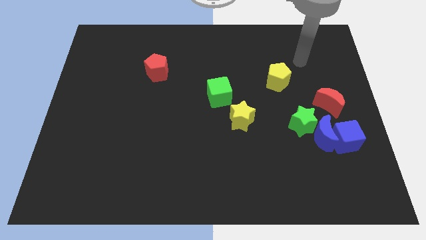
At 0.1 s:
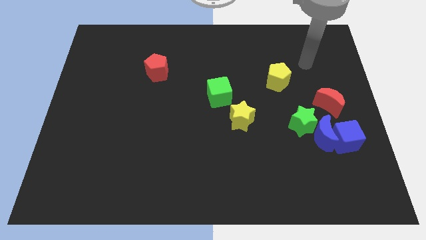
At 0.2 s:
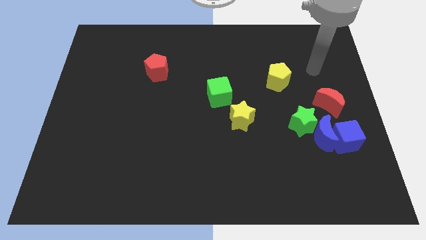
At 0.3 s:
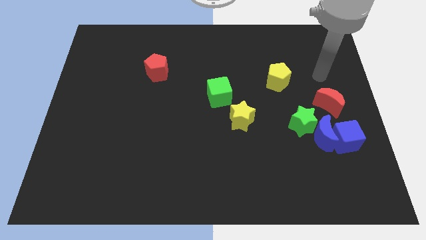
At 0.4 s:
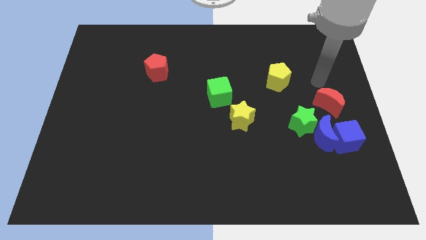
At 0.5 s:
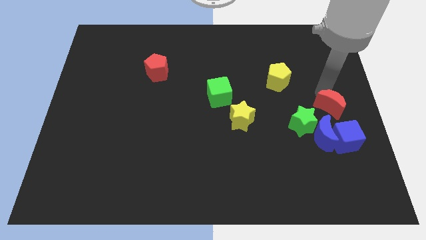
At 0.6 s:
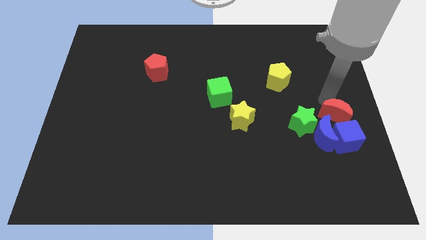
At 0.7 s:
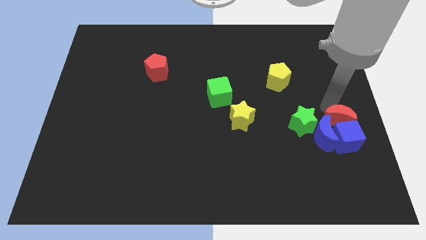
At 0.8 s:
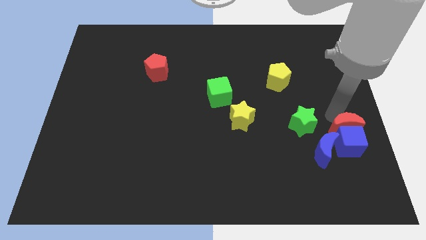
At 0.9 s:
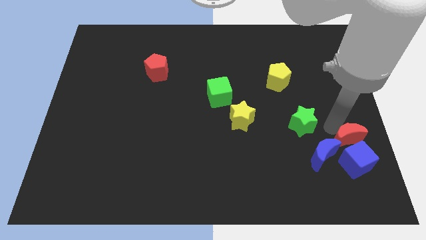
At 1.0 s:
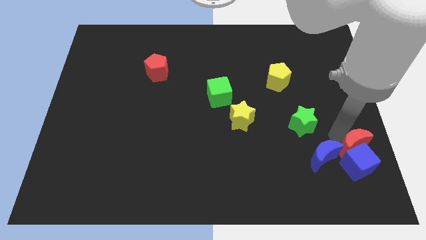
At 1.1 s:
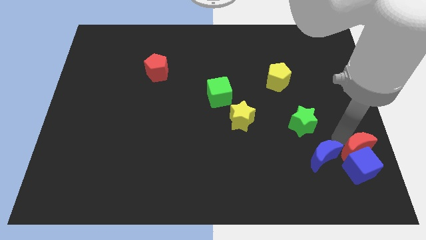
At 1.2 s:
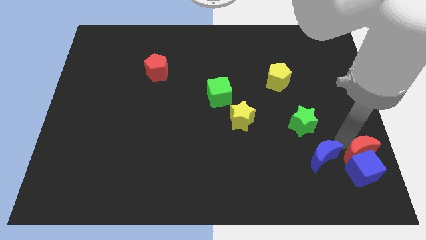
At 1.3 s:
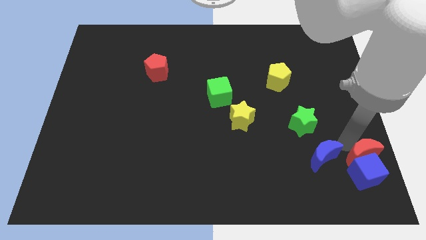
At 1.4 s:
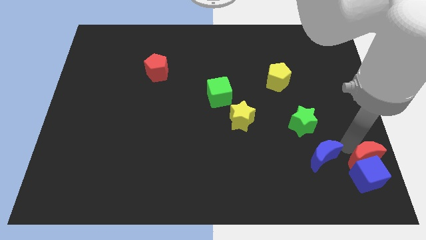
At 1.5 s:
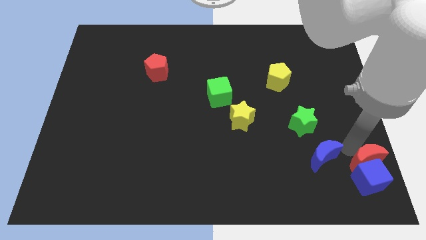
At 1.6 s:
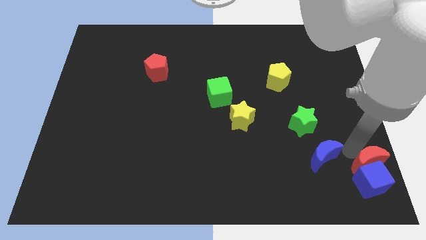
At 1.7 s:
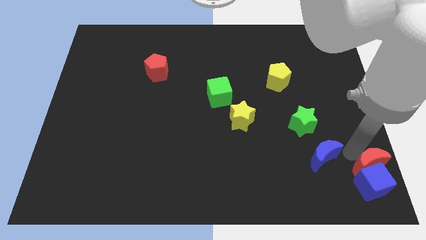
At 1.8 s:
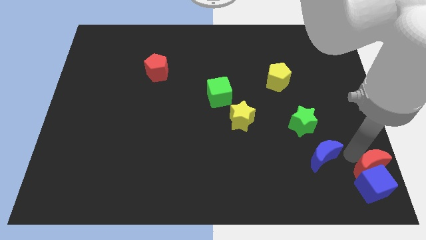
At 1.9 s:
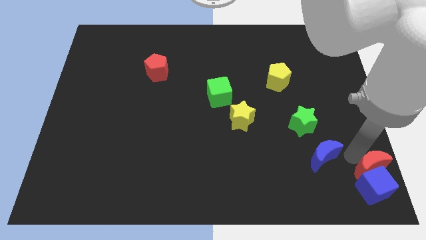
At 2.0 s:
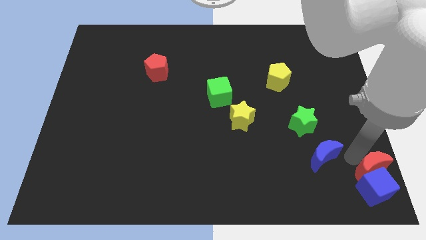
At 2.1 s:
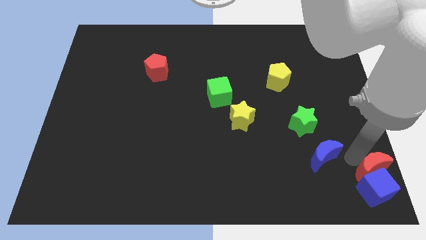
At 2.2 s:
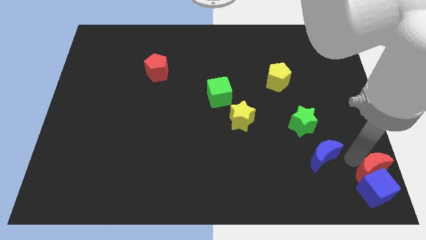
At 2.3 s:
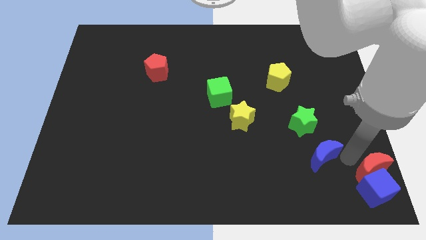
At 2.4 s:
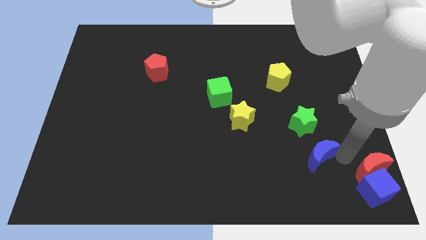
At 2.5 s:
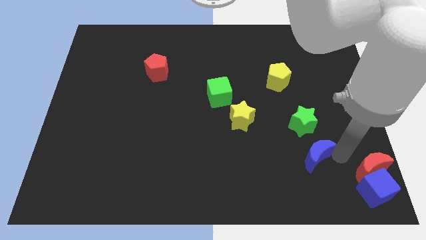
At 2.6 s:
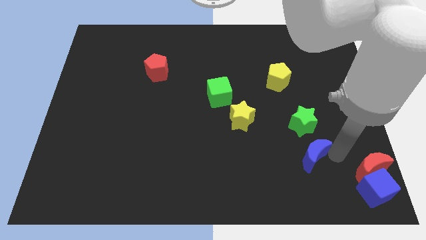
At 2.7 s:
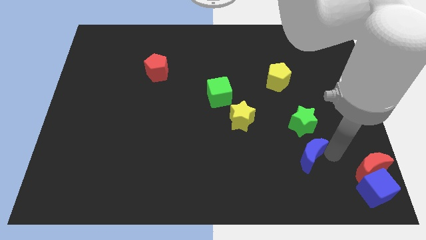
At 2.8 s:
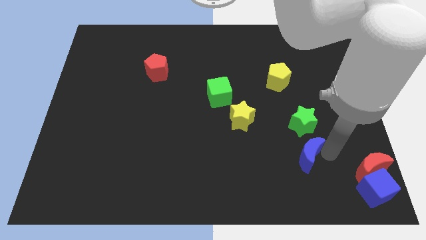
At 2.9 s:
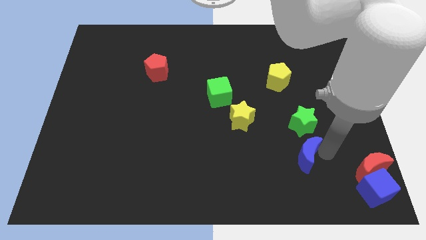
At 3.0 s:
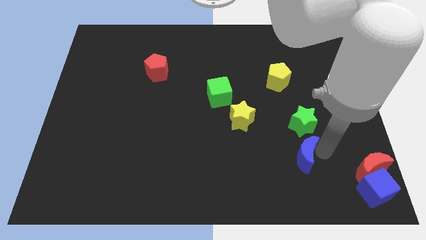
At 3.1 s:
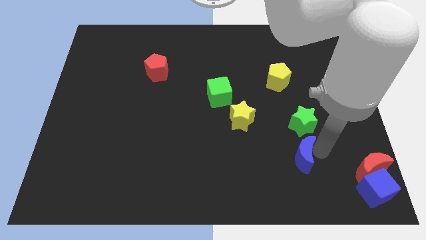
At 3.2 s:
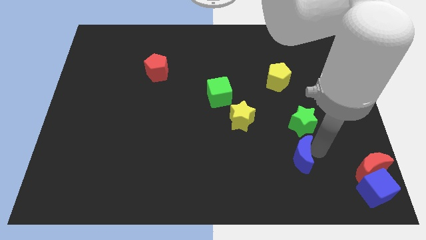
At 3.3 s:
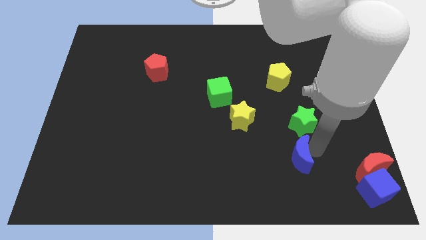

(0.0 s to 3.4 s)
move the blue moon away from the blue cube, green star, and red moon

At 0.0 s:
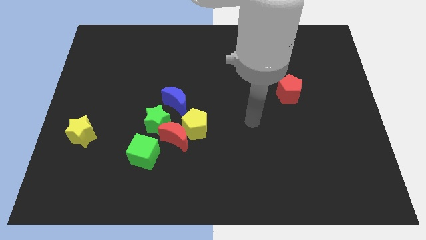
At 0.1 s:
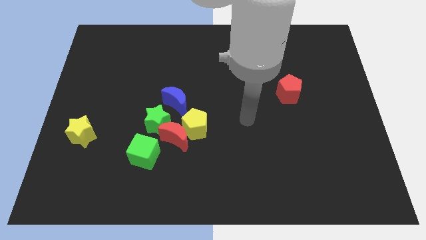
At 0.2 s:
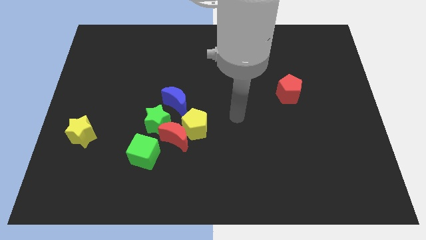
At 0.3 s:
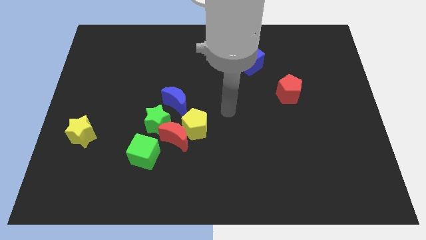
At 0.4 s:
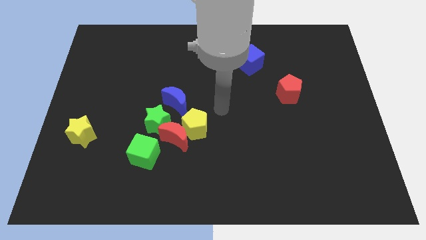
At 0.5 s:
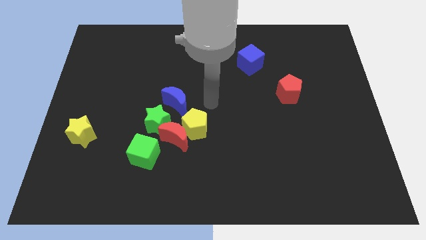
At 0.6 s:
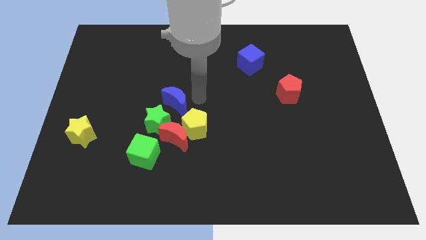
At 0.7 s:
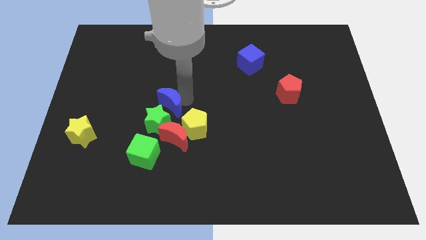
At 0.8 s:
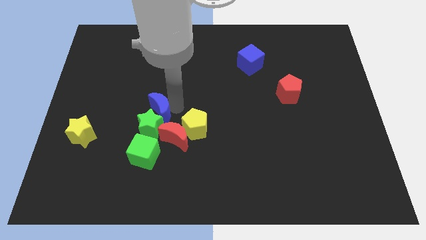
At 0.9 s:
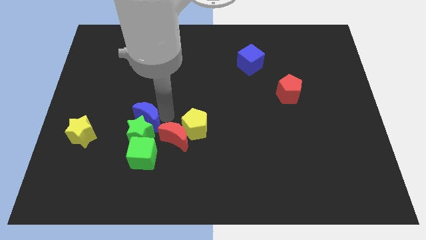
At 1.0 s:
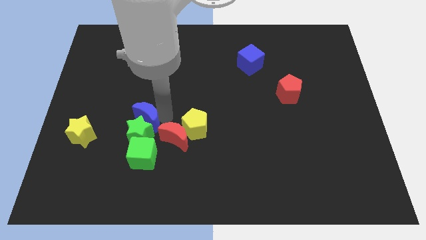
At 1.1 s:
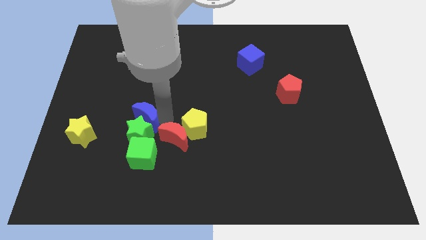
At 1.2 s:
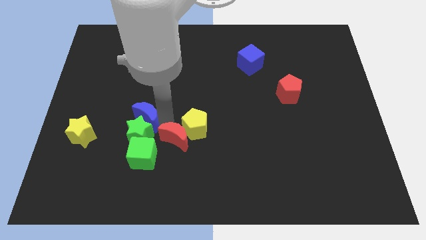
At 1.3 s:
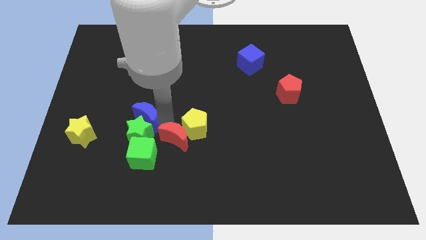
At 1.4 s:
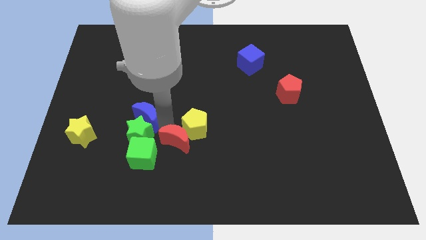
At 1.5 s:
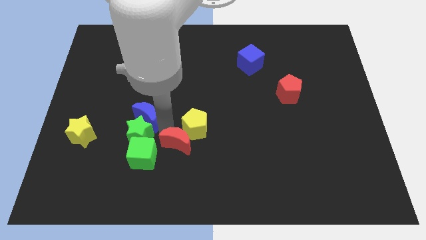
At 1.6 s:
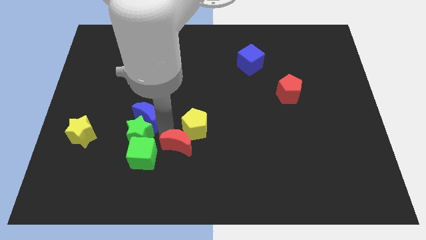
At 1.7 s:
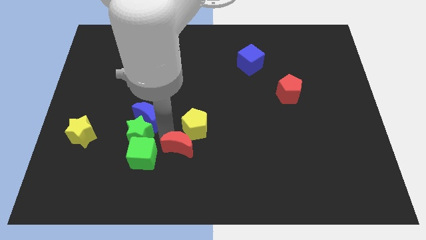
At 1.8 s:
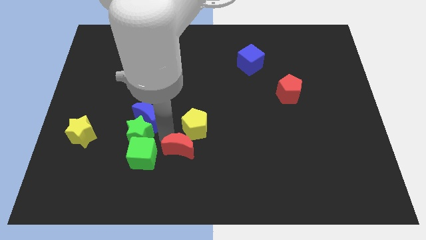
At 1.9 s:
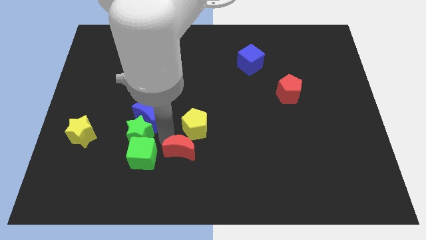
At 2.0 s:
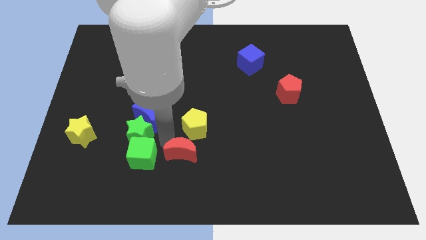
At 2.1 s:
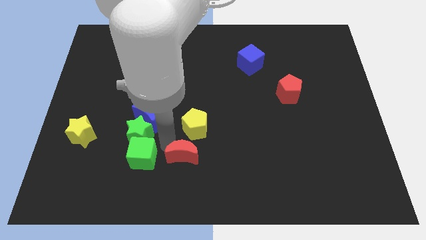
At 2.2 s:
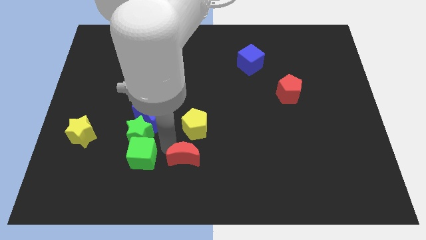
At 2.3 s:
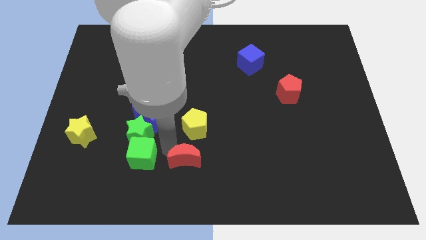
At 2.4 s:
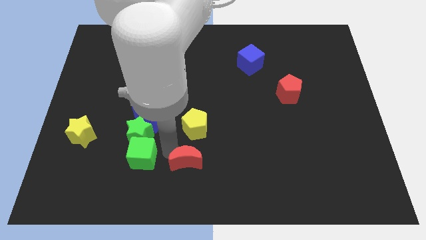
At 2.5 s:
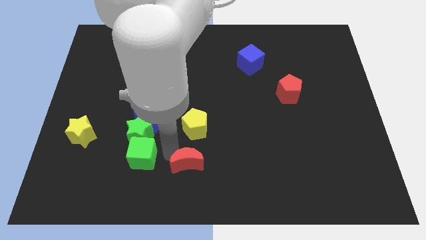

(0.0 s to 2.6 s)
move the red moon away from the clump

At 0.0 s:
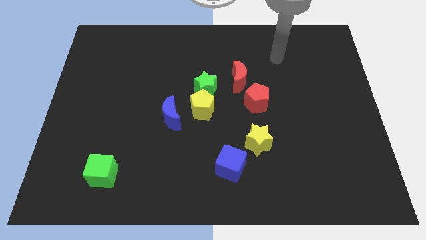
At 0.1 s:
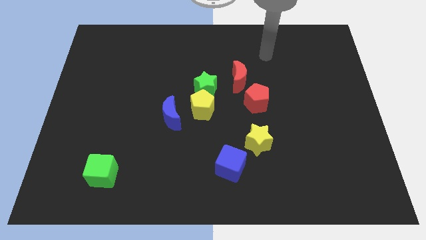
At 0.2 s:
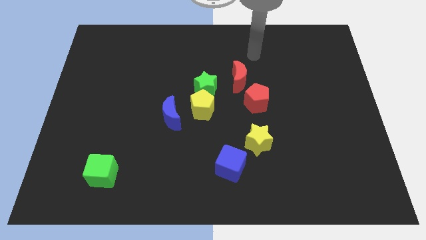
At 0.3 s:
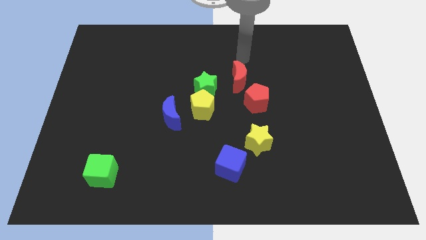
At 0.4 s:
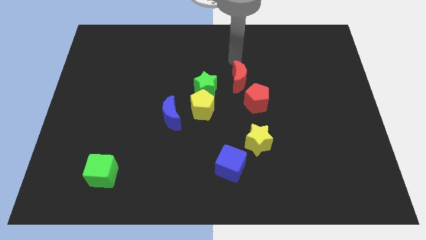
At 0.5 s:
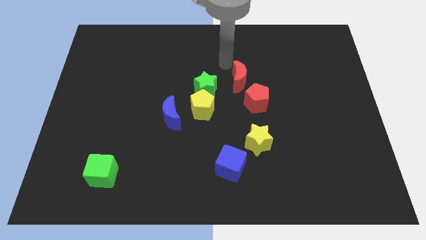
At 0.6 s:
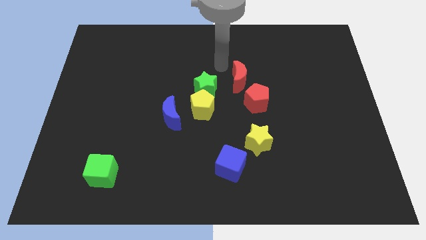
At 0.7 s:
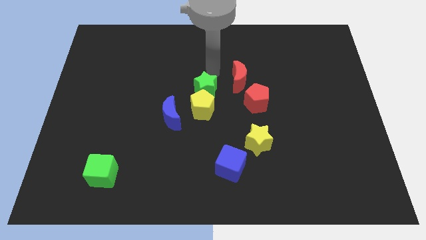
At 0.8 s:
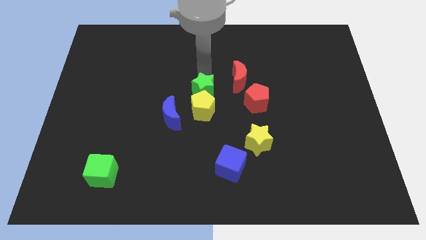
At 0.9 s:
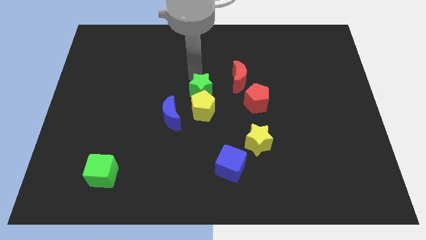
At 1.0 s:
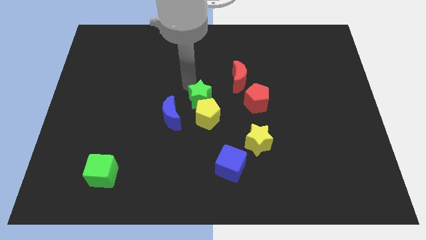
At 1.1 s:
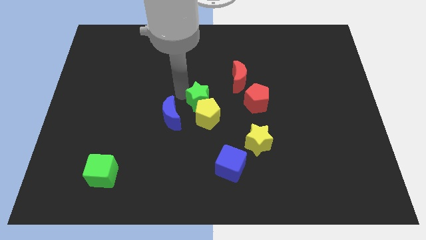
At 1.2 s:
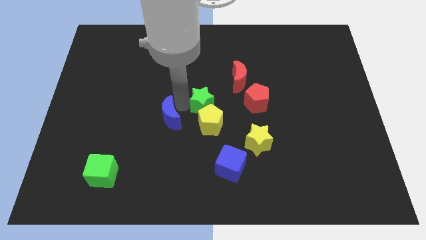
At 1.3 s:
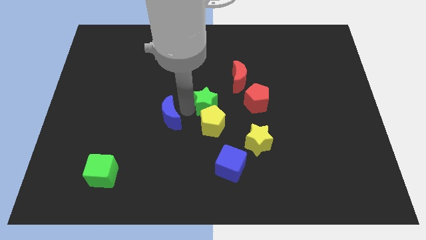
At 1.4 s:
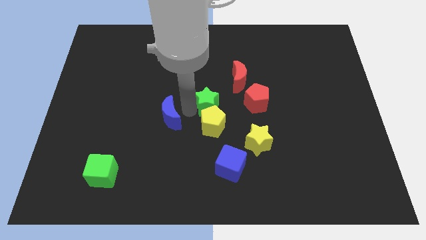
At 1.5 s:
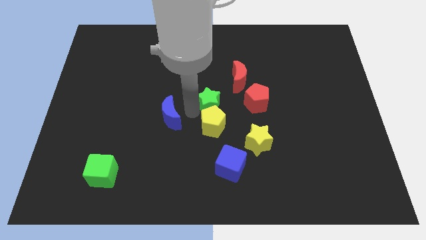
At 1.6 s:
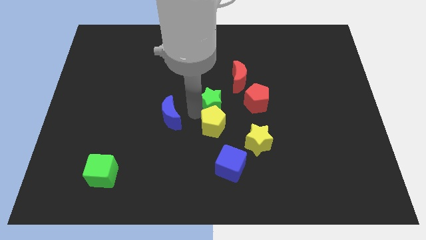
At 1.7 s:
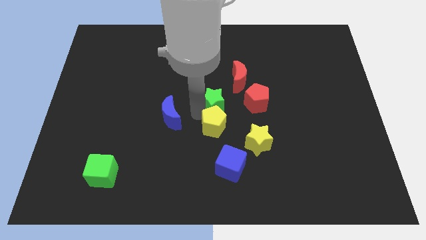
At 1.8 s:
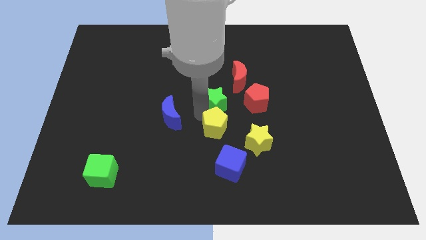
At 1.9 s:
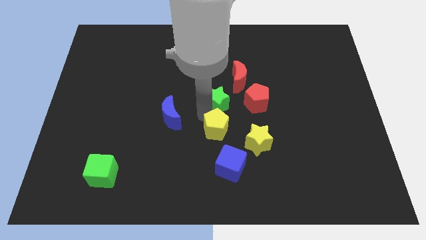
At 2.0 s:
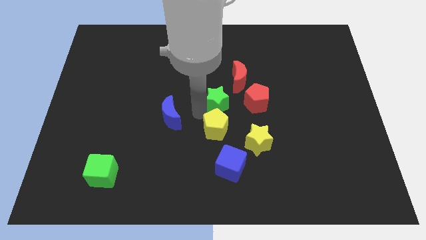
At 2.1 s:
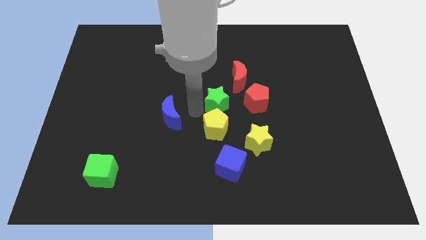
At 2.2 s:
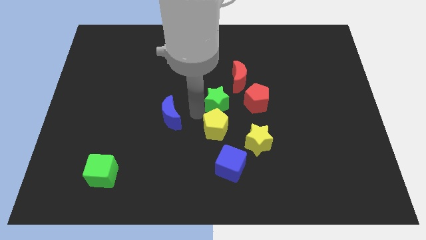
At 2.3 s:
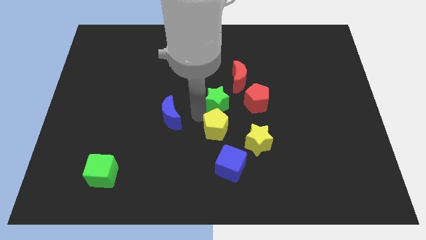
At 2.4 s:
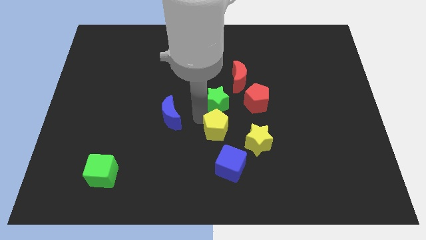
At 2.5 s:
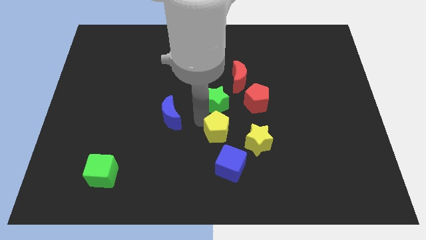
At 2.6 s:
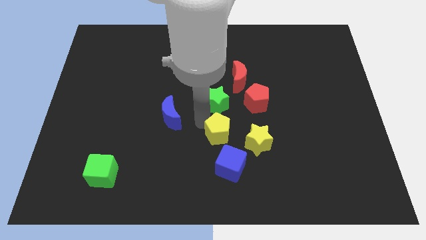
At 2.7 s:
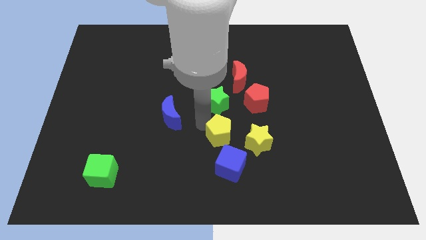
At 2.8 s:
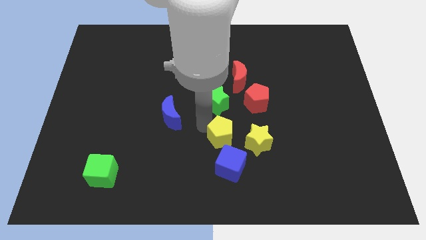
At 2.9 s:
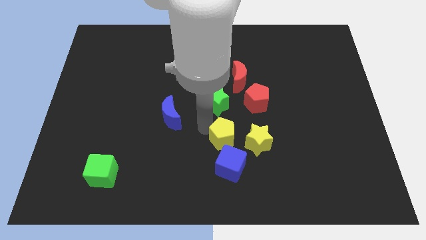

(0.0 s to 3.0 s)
pull the yellow pentagon apart from the green star and blue moon

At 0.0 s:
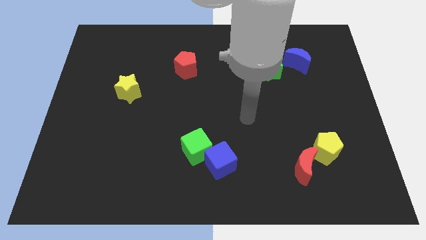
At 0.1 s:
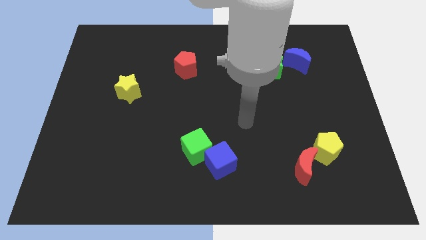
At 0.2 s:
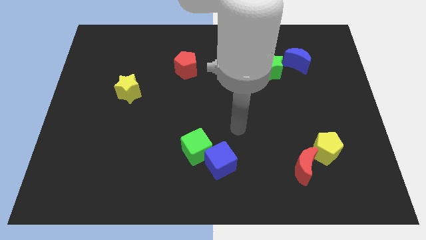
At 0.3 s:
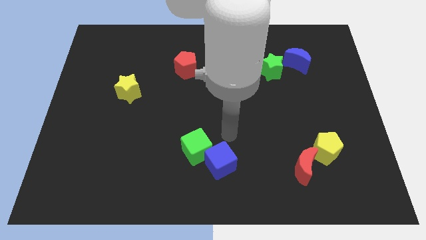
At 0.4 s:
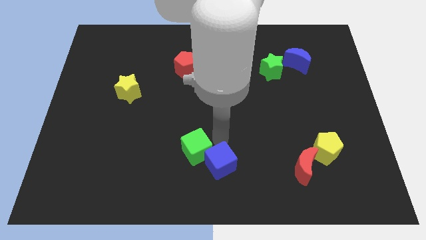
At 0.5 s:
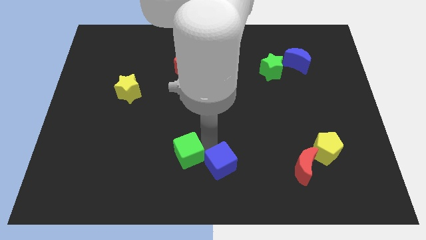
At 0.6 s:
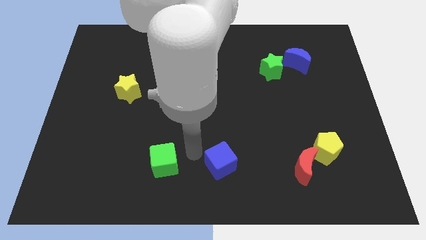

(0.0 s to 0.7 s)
move the blue cube away from the green cube
